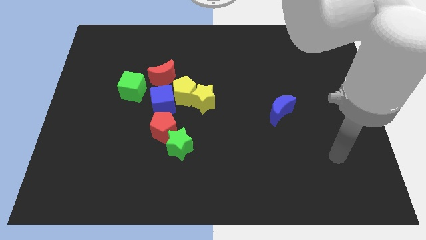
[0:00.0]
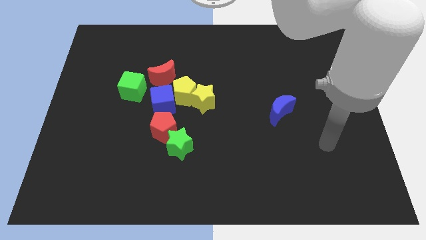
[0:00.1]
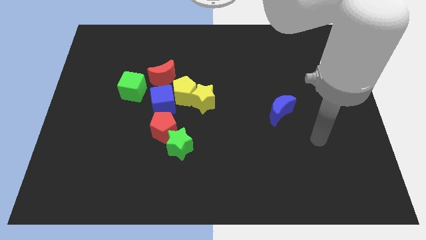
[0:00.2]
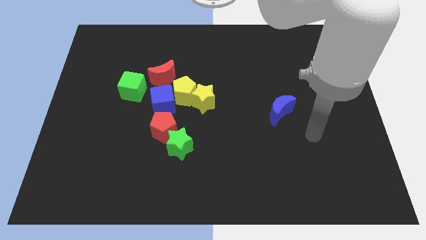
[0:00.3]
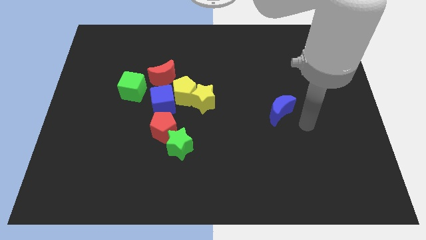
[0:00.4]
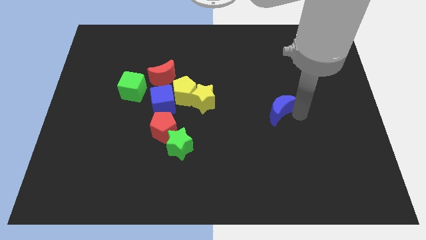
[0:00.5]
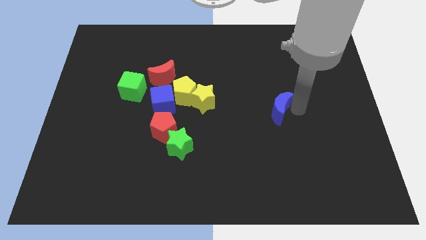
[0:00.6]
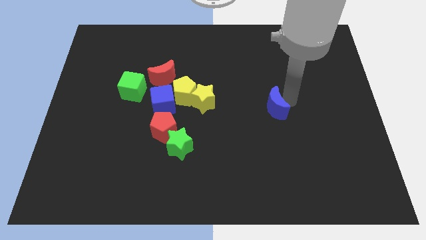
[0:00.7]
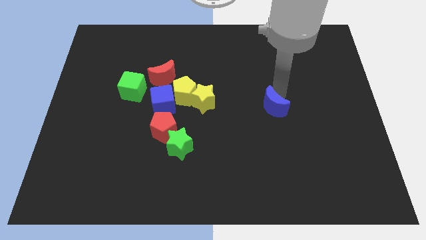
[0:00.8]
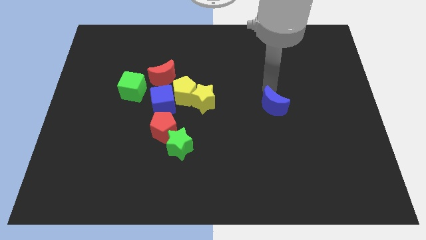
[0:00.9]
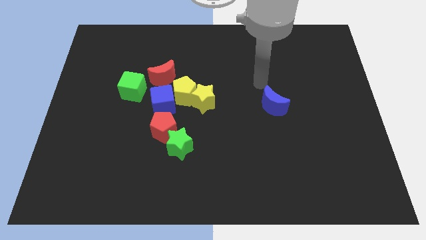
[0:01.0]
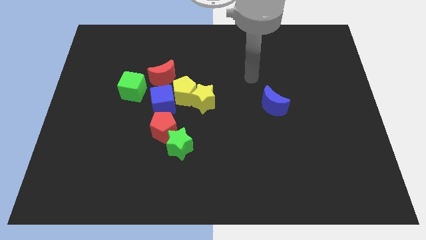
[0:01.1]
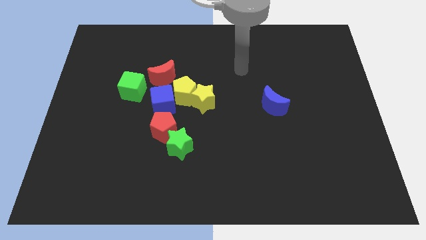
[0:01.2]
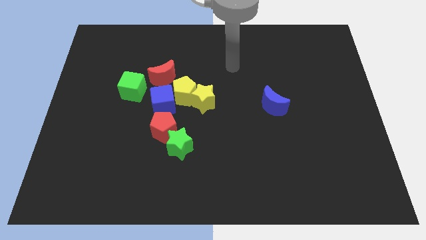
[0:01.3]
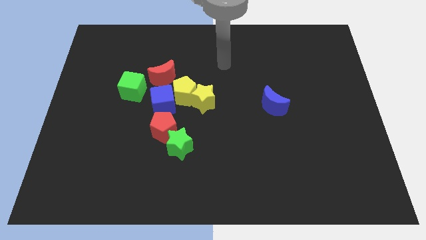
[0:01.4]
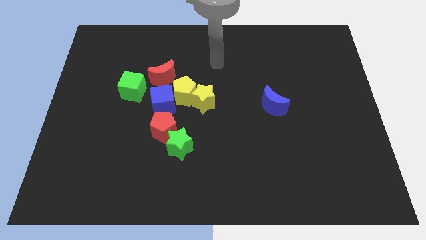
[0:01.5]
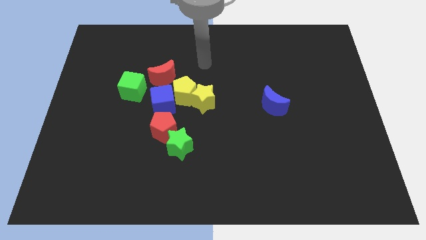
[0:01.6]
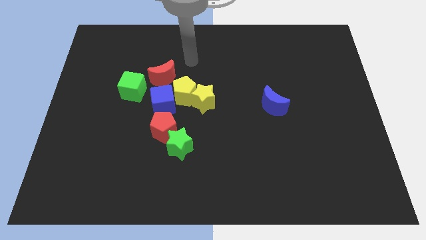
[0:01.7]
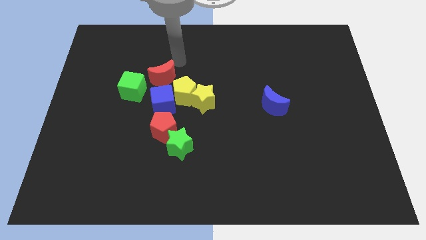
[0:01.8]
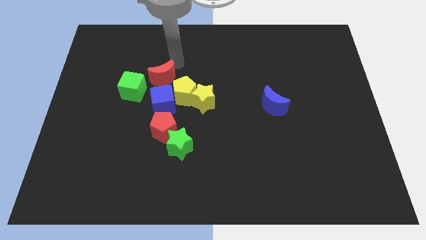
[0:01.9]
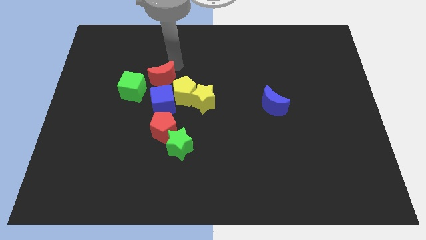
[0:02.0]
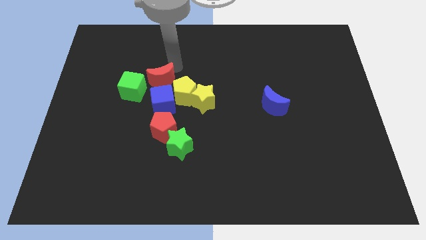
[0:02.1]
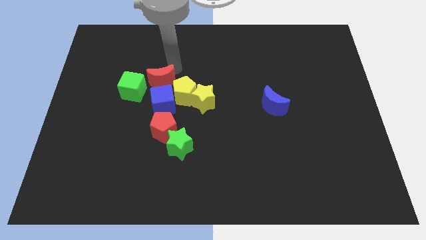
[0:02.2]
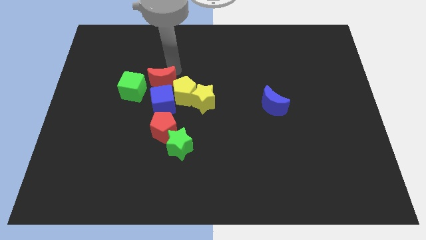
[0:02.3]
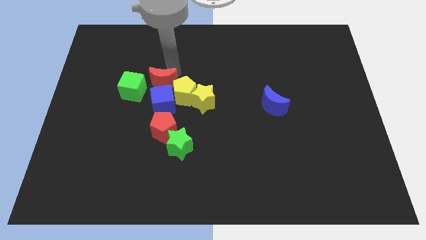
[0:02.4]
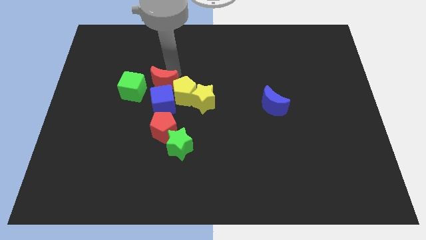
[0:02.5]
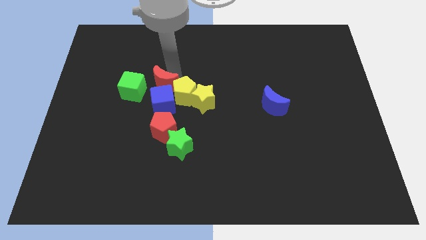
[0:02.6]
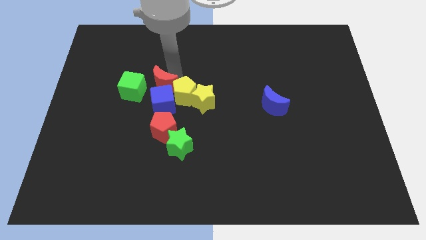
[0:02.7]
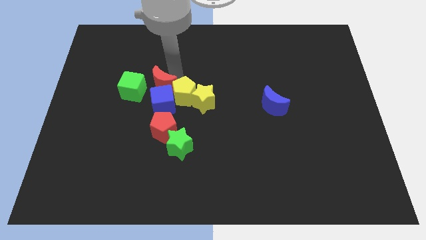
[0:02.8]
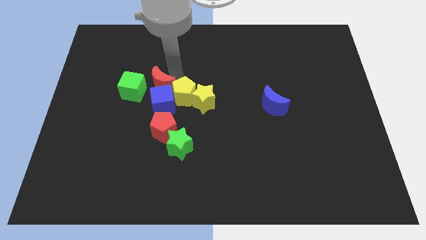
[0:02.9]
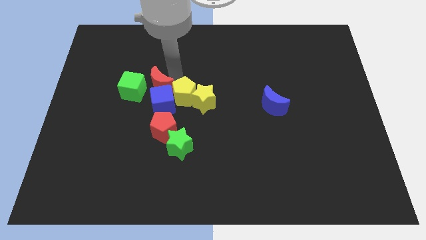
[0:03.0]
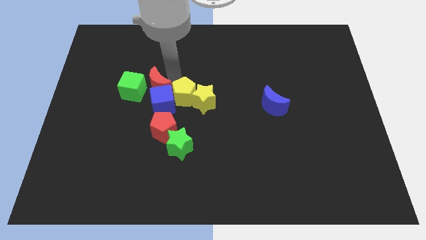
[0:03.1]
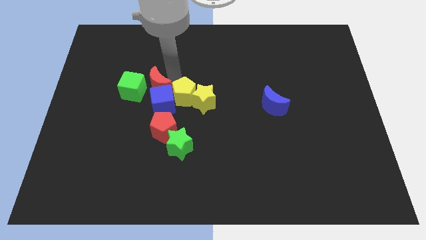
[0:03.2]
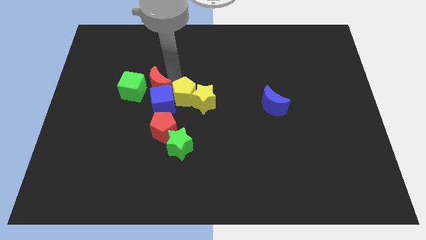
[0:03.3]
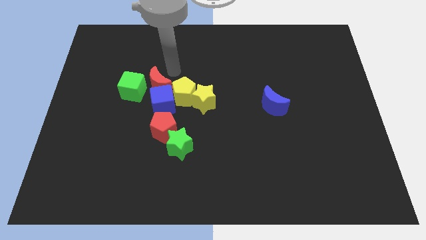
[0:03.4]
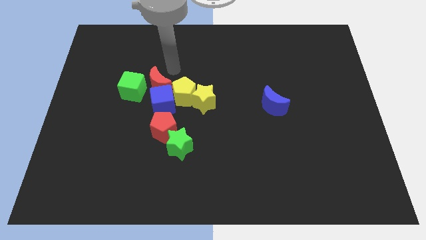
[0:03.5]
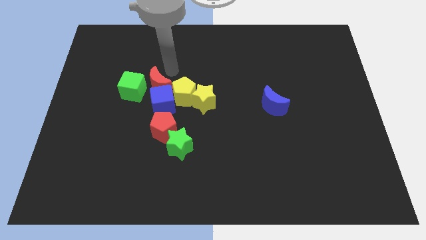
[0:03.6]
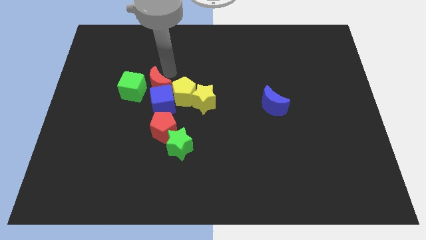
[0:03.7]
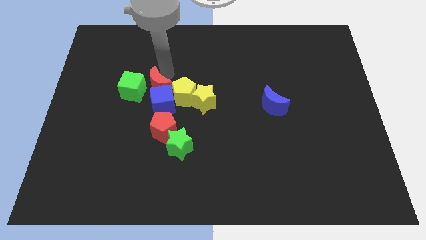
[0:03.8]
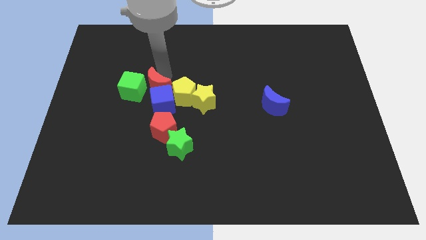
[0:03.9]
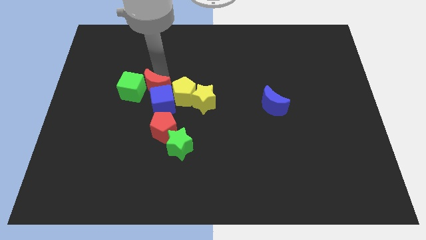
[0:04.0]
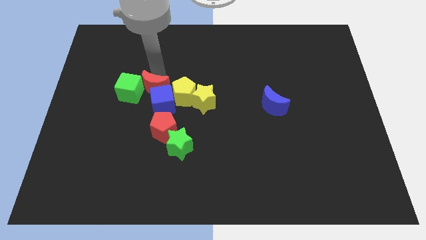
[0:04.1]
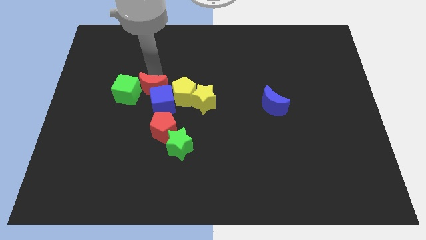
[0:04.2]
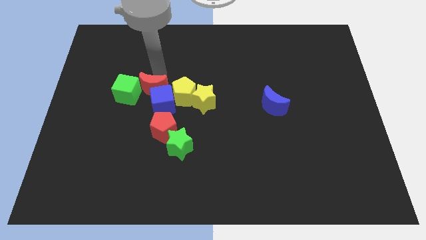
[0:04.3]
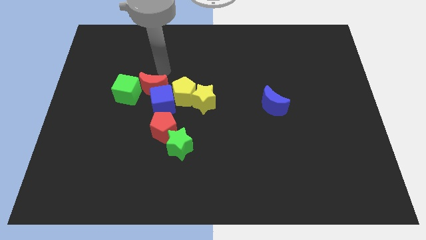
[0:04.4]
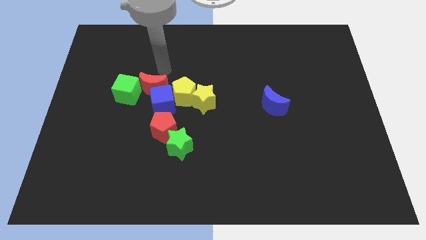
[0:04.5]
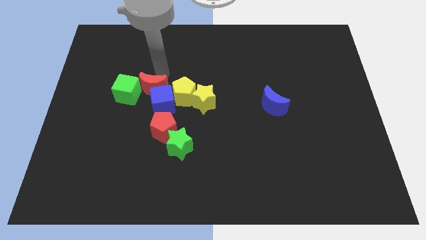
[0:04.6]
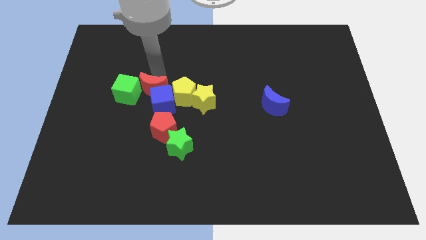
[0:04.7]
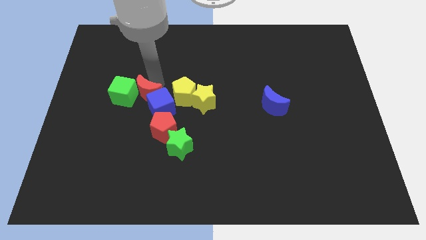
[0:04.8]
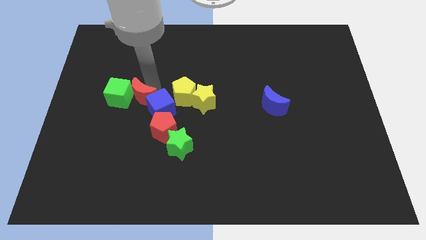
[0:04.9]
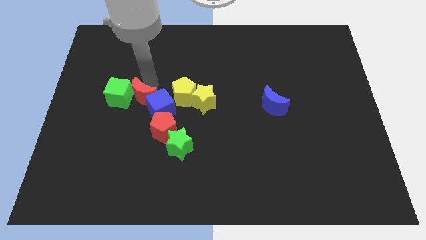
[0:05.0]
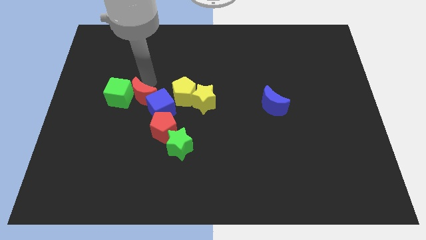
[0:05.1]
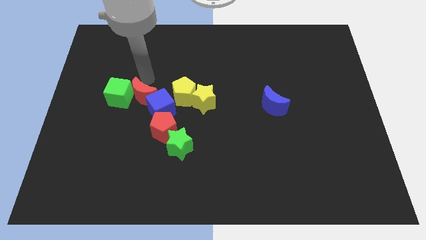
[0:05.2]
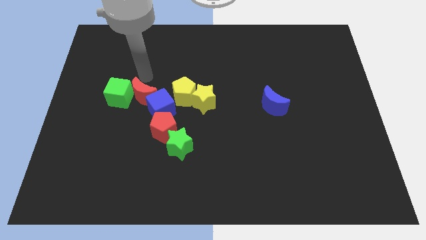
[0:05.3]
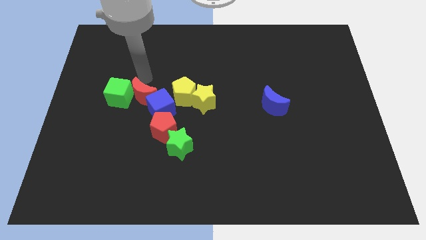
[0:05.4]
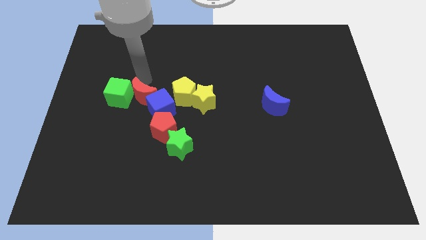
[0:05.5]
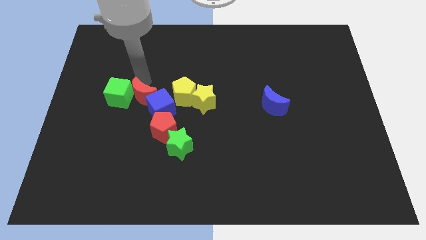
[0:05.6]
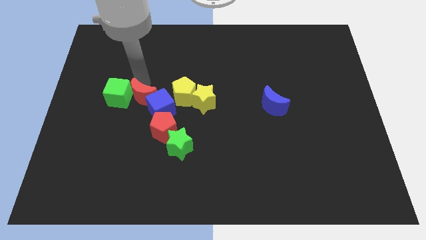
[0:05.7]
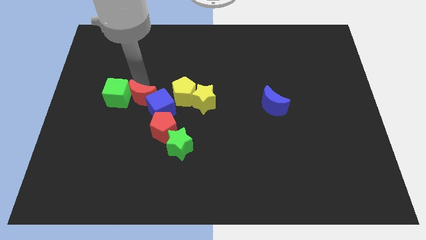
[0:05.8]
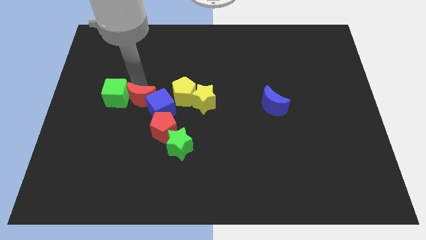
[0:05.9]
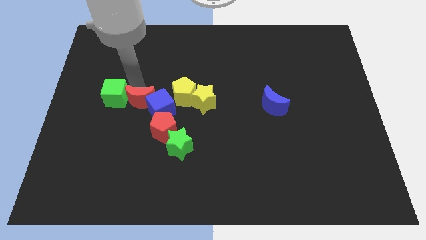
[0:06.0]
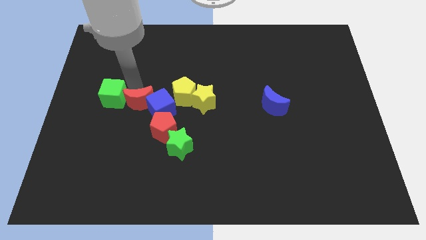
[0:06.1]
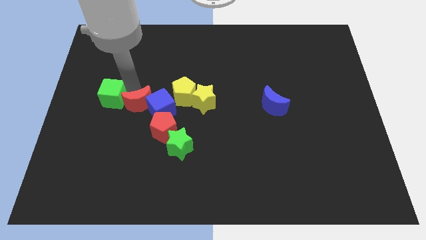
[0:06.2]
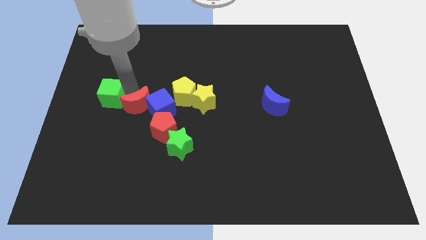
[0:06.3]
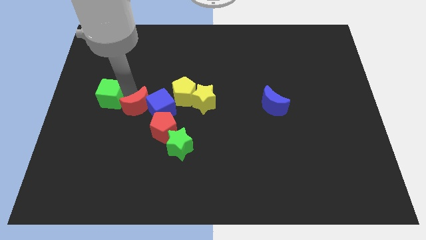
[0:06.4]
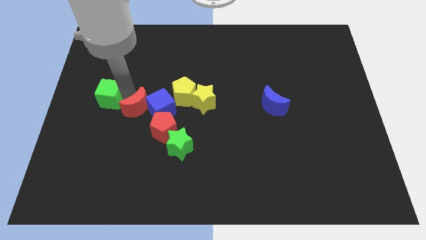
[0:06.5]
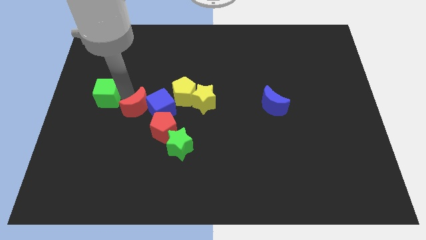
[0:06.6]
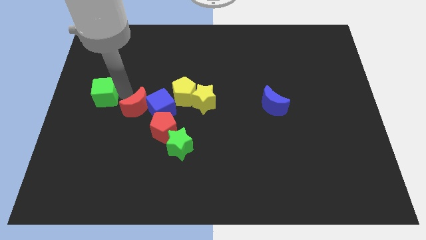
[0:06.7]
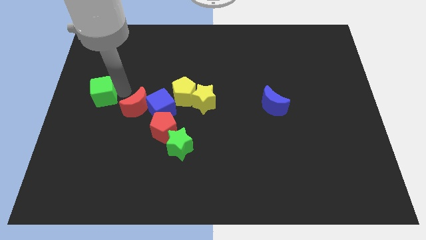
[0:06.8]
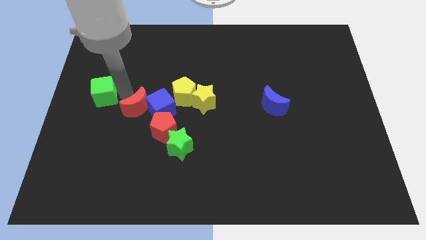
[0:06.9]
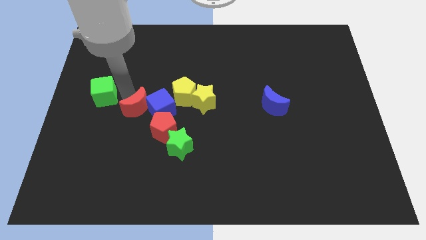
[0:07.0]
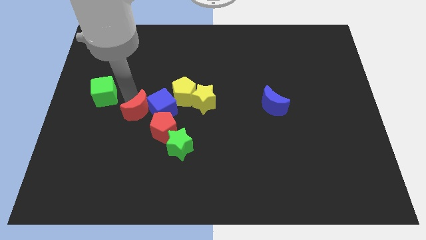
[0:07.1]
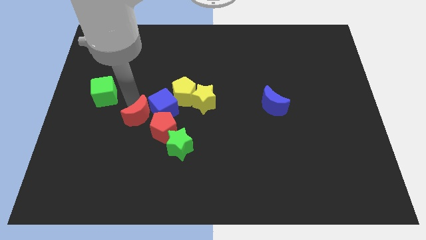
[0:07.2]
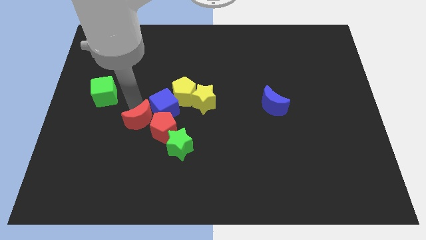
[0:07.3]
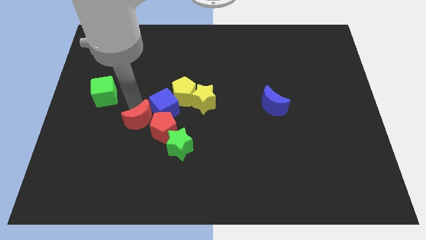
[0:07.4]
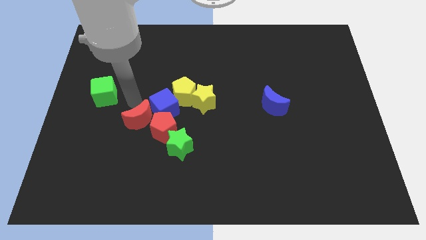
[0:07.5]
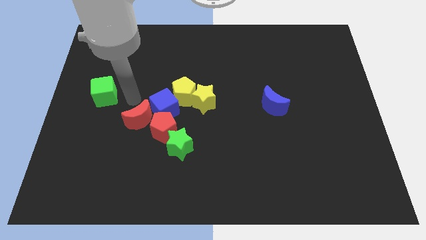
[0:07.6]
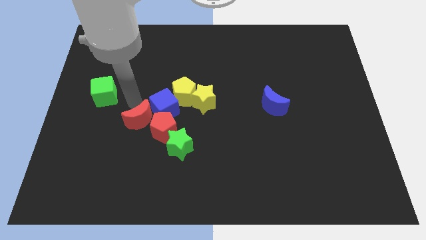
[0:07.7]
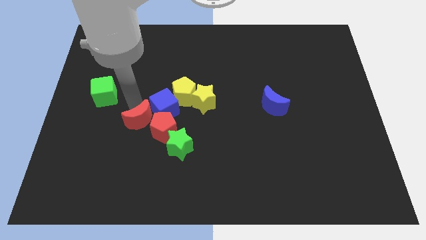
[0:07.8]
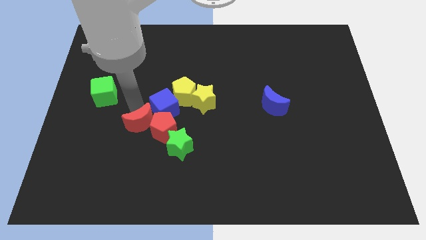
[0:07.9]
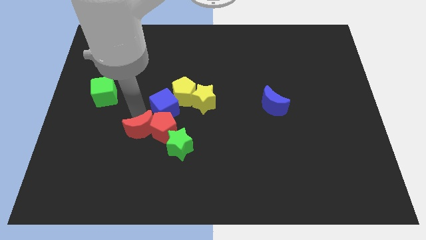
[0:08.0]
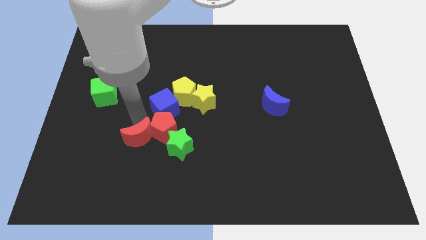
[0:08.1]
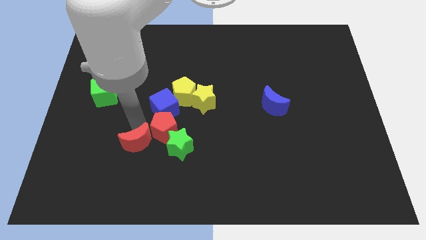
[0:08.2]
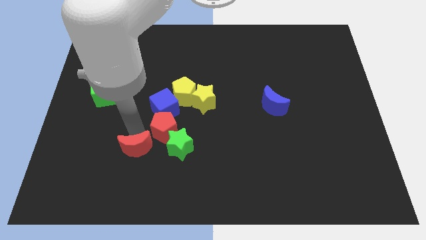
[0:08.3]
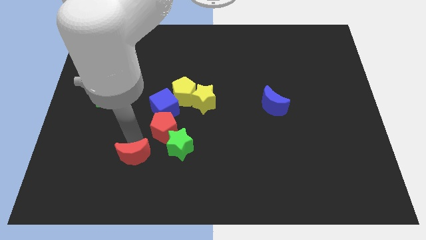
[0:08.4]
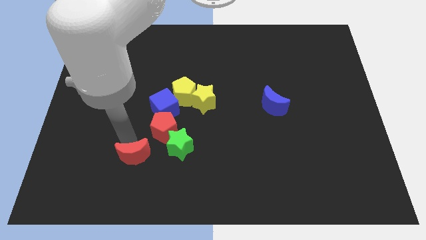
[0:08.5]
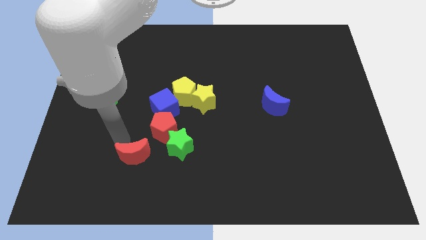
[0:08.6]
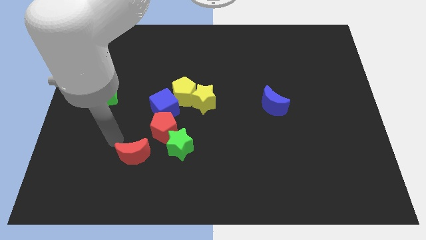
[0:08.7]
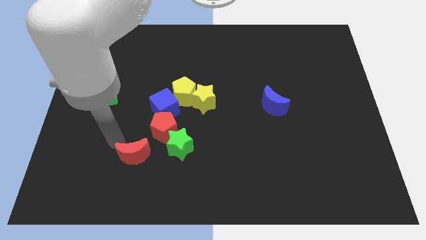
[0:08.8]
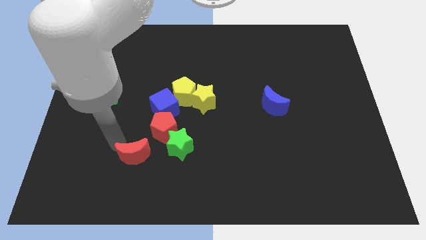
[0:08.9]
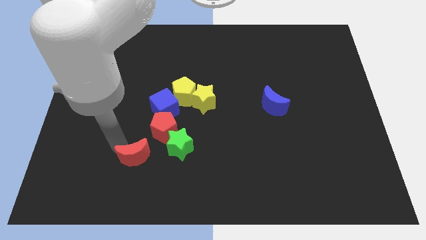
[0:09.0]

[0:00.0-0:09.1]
put the red moon to the bottom left side of the green star
